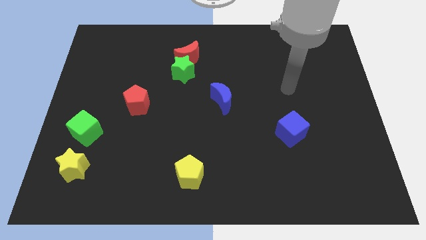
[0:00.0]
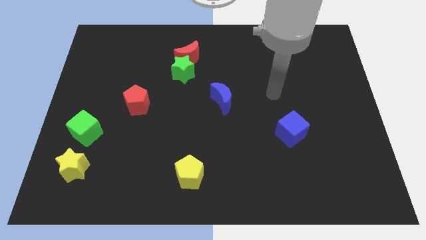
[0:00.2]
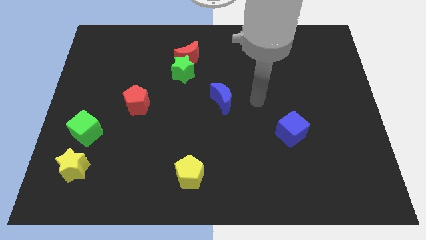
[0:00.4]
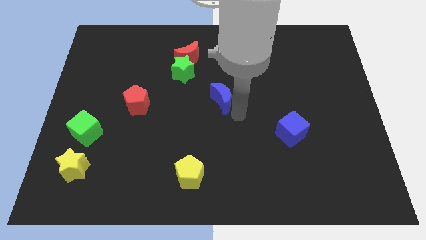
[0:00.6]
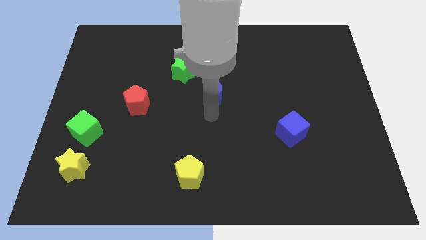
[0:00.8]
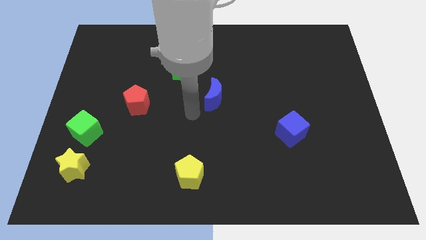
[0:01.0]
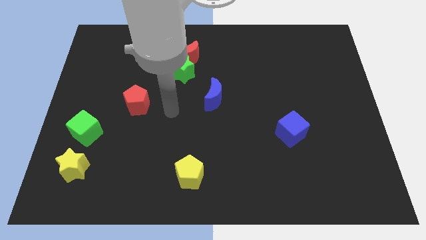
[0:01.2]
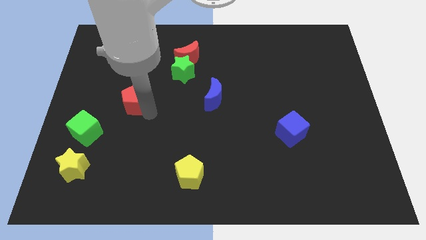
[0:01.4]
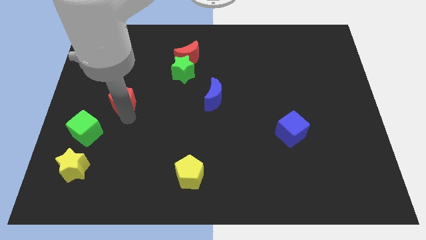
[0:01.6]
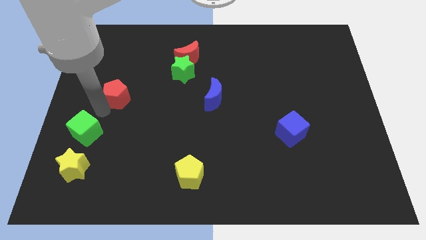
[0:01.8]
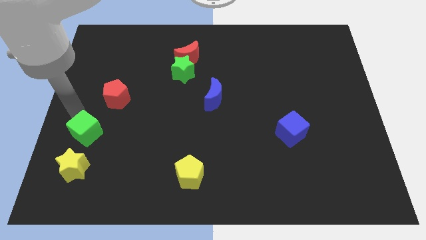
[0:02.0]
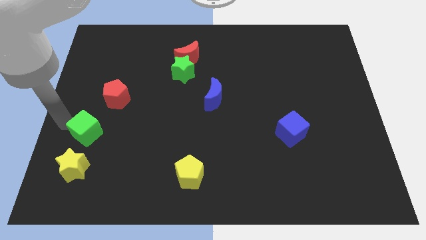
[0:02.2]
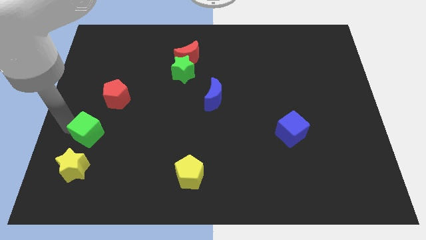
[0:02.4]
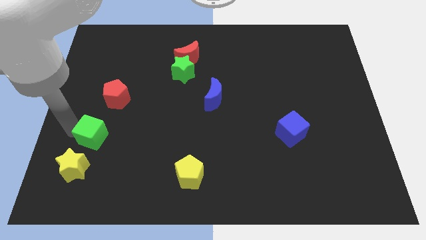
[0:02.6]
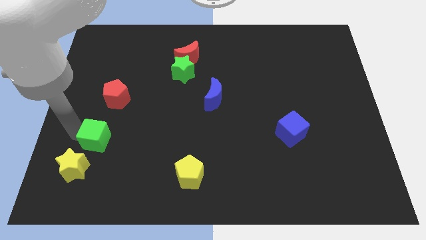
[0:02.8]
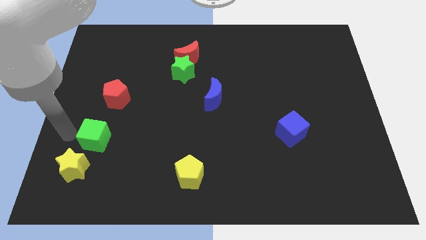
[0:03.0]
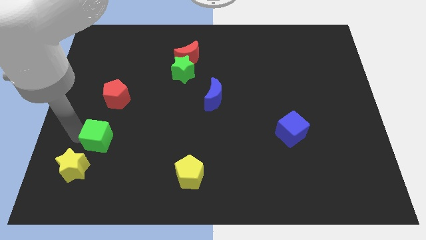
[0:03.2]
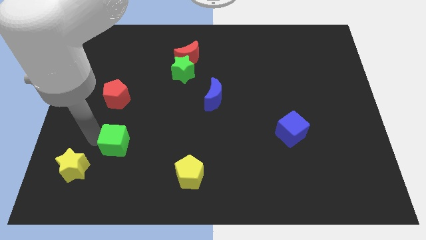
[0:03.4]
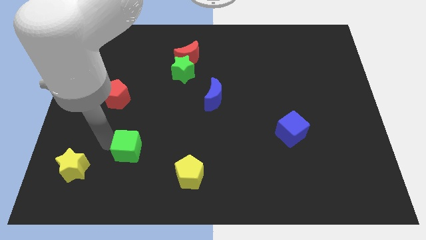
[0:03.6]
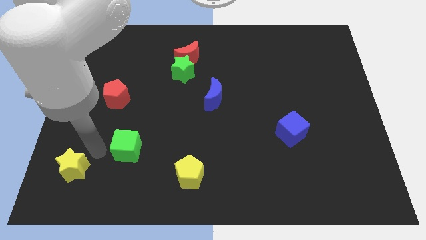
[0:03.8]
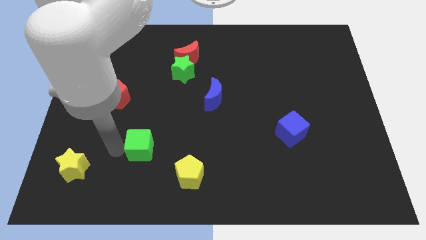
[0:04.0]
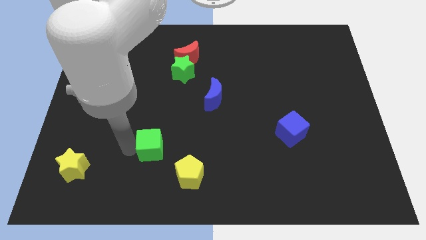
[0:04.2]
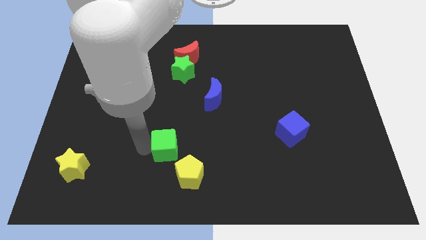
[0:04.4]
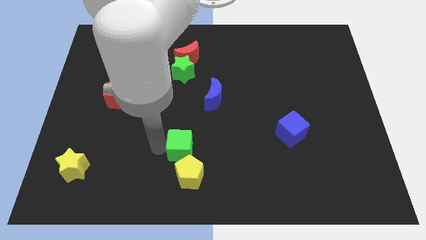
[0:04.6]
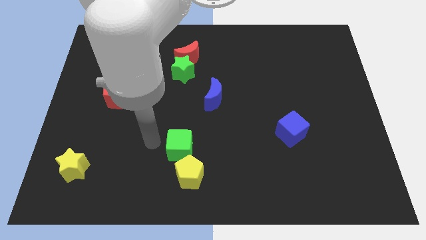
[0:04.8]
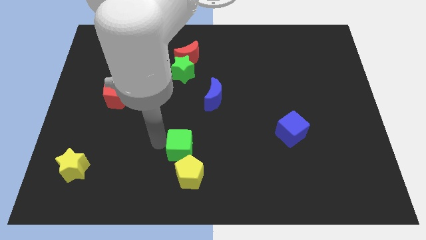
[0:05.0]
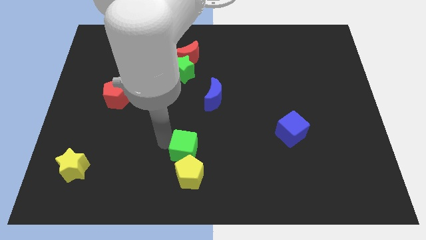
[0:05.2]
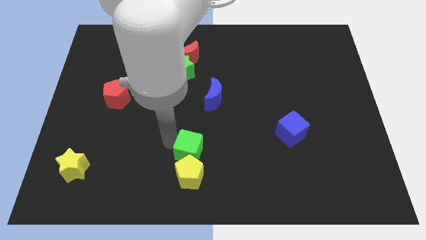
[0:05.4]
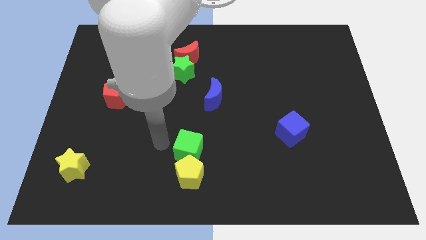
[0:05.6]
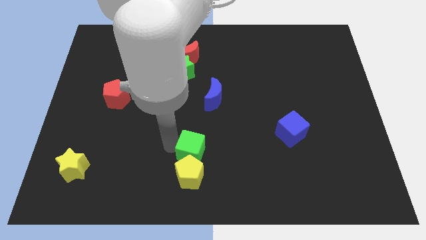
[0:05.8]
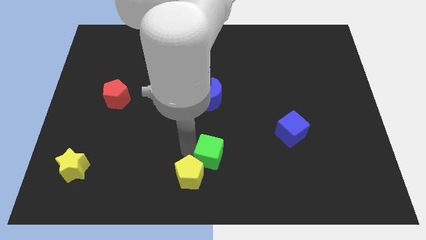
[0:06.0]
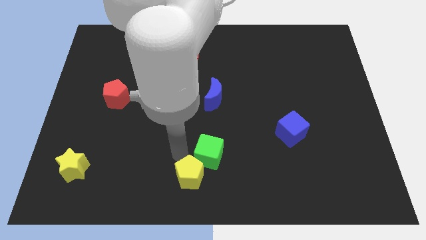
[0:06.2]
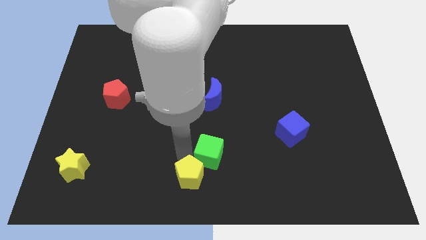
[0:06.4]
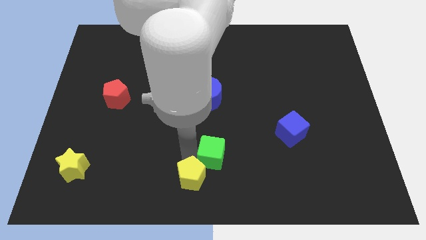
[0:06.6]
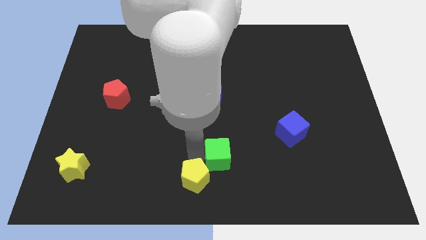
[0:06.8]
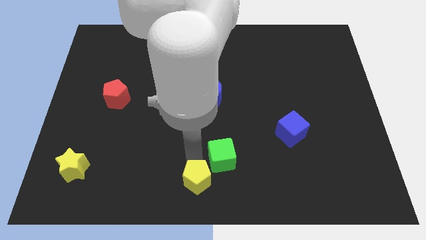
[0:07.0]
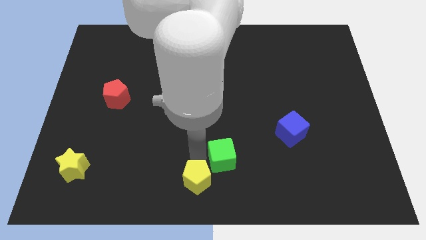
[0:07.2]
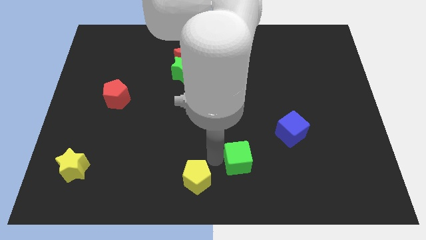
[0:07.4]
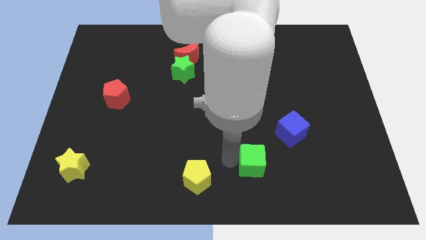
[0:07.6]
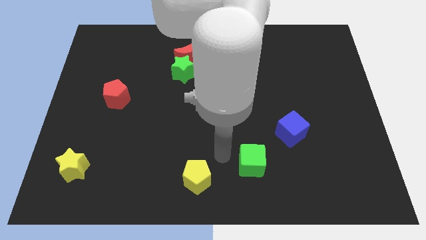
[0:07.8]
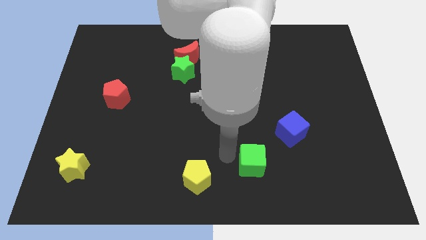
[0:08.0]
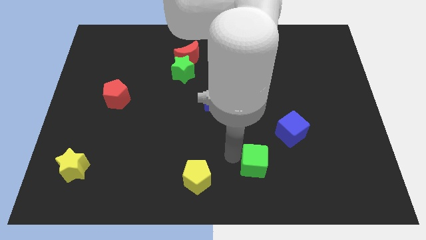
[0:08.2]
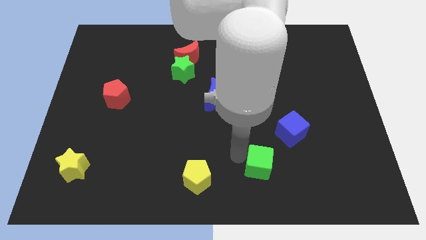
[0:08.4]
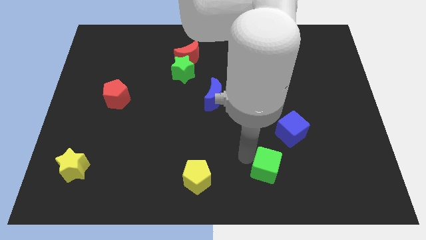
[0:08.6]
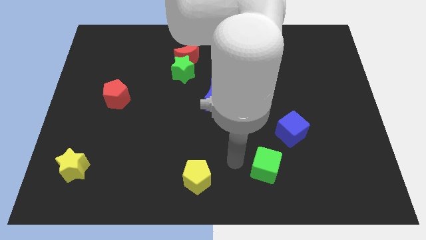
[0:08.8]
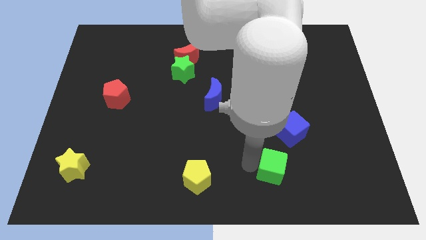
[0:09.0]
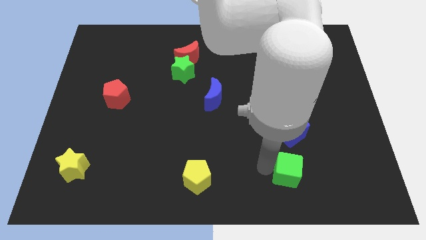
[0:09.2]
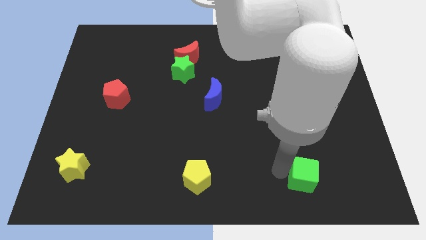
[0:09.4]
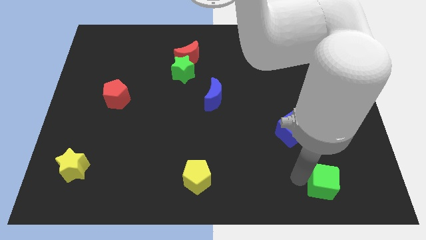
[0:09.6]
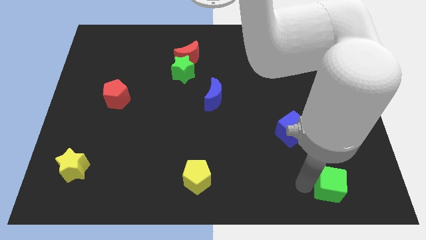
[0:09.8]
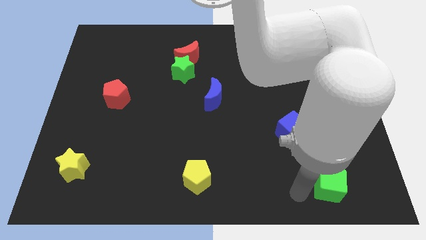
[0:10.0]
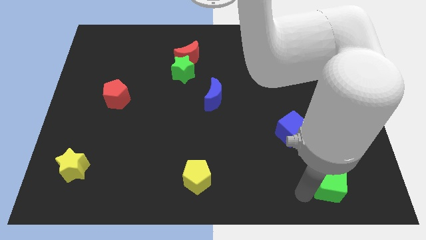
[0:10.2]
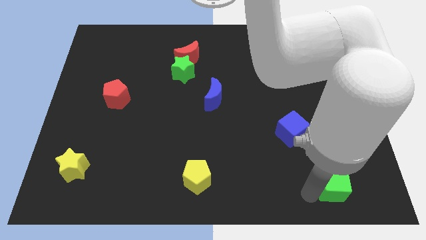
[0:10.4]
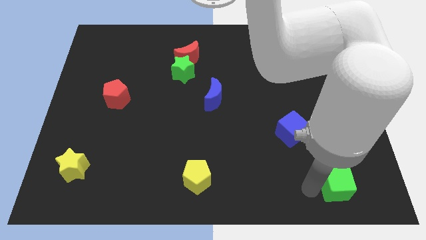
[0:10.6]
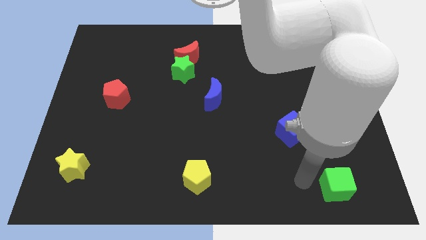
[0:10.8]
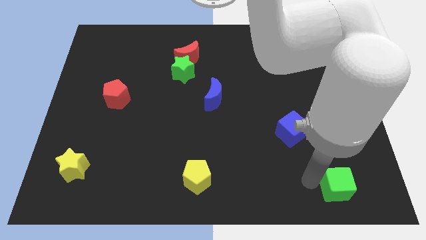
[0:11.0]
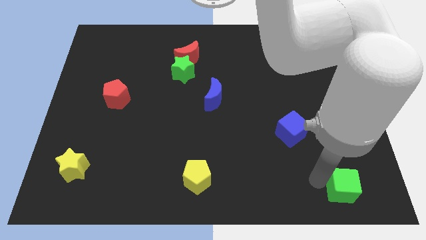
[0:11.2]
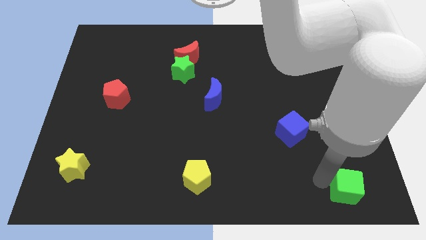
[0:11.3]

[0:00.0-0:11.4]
put the green cube to the bottom right corner

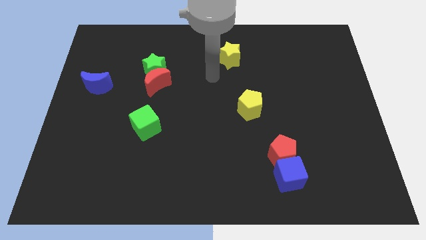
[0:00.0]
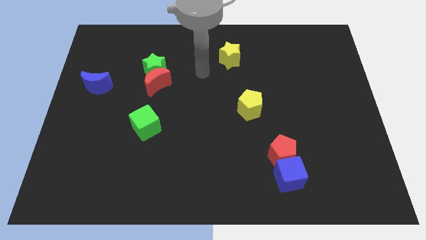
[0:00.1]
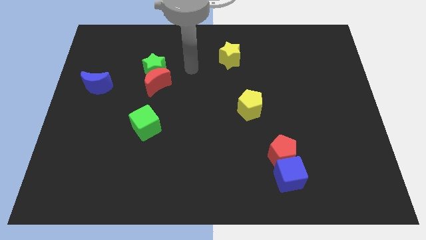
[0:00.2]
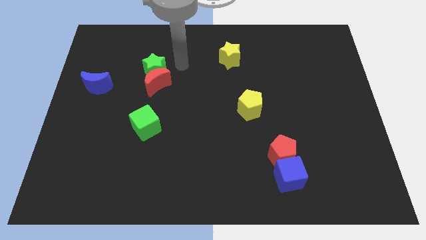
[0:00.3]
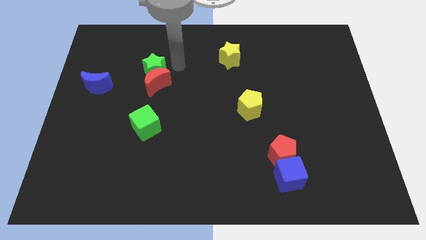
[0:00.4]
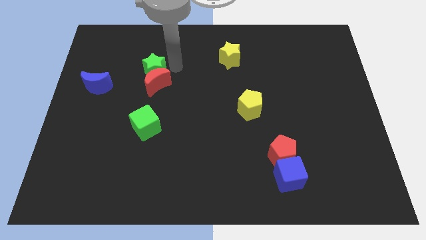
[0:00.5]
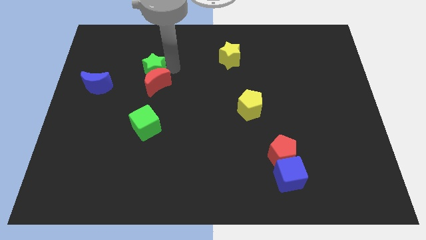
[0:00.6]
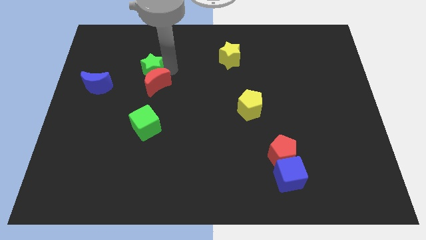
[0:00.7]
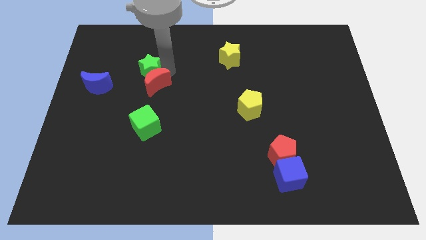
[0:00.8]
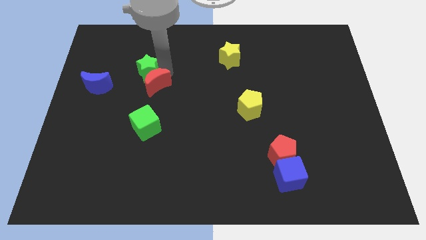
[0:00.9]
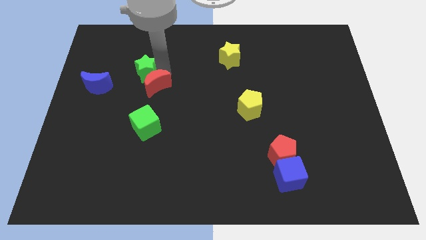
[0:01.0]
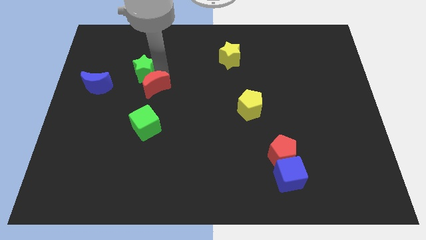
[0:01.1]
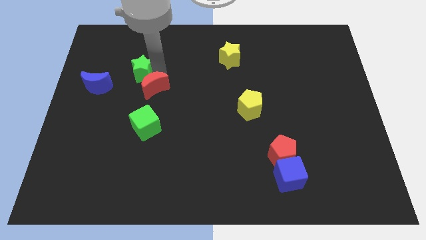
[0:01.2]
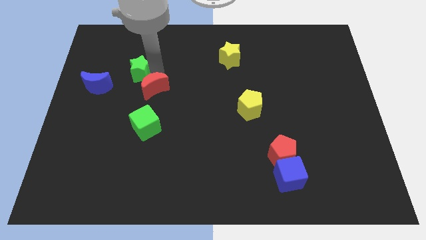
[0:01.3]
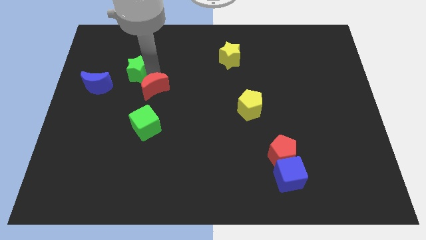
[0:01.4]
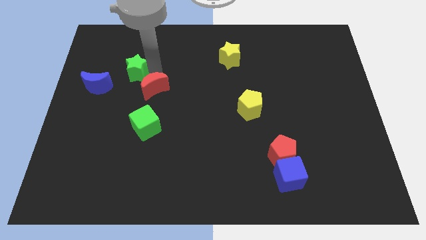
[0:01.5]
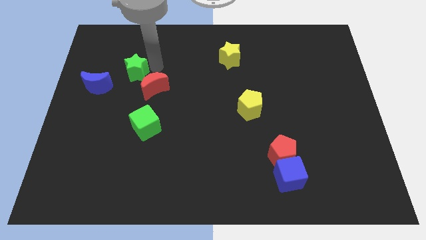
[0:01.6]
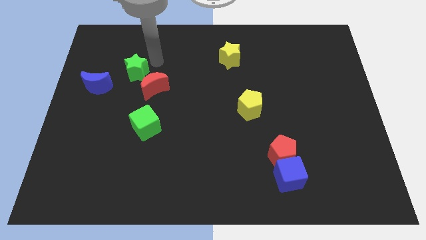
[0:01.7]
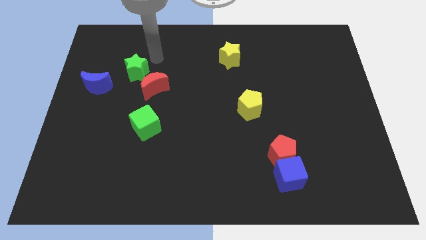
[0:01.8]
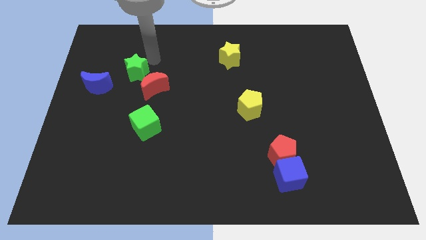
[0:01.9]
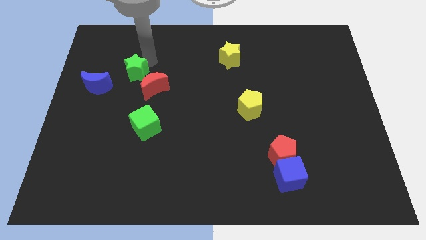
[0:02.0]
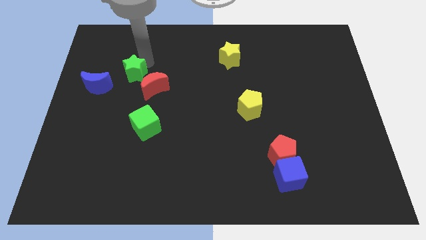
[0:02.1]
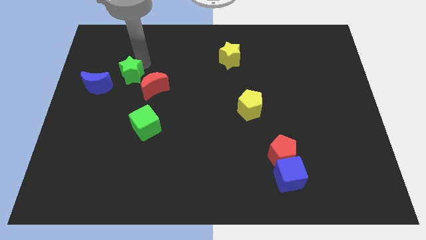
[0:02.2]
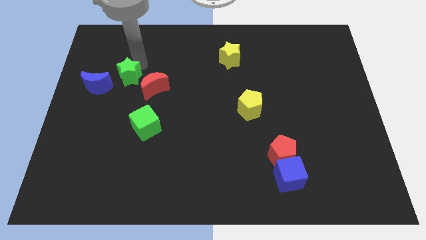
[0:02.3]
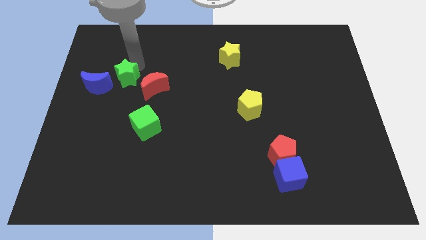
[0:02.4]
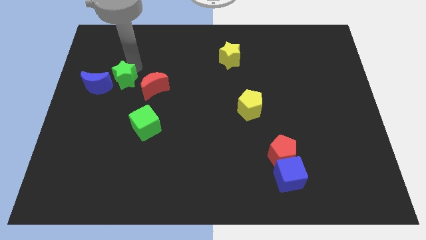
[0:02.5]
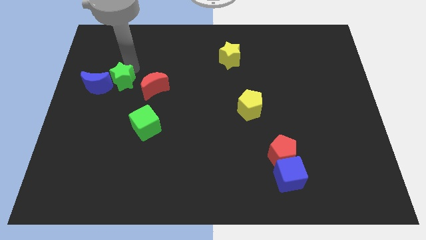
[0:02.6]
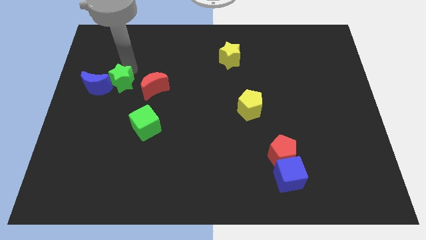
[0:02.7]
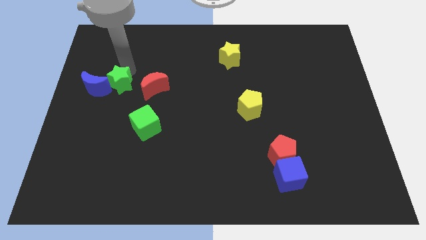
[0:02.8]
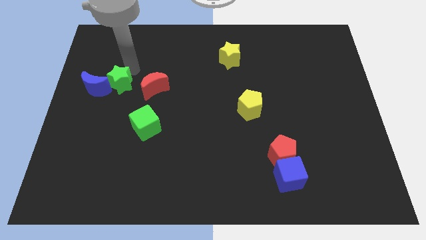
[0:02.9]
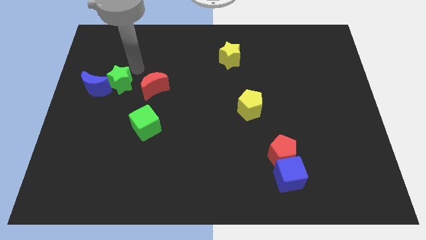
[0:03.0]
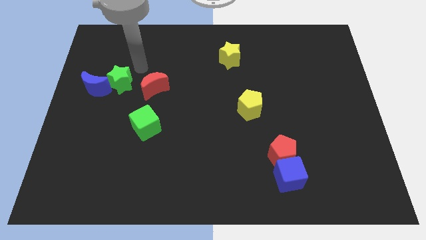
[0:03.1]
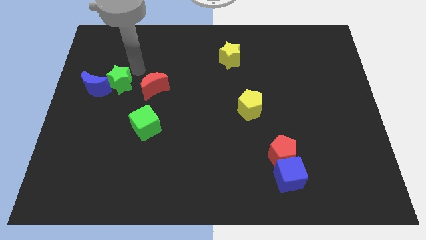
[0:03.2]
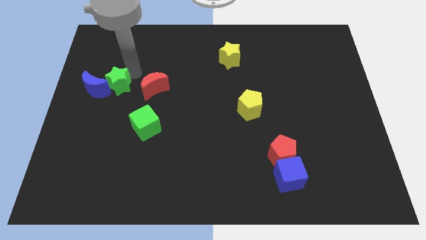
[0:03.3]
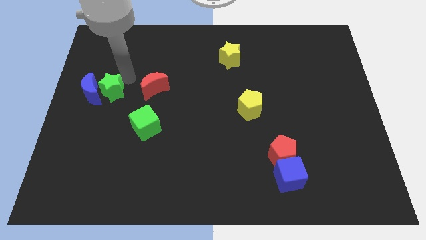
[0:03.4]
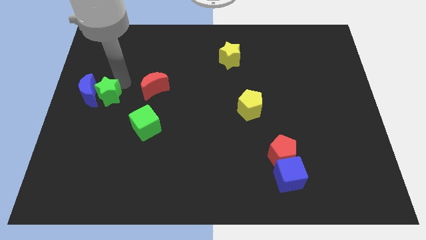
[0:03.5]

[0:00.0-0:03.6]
push the green star to the center left
